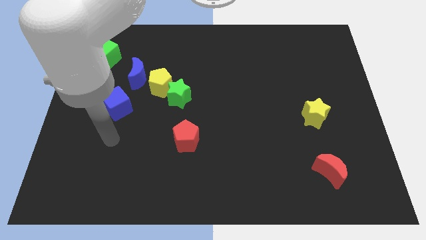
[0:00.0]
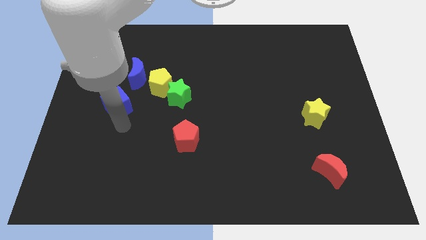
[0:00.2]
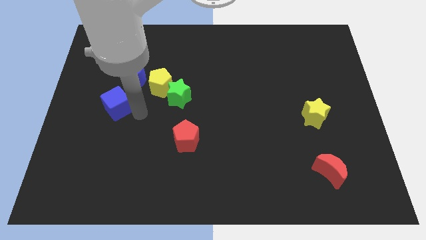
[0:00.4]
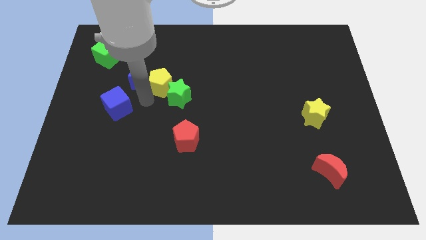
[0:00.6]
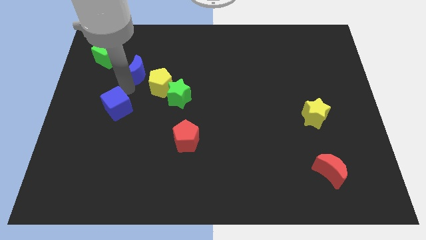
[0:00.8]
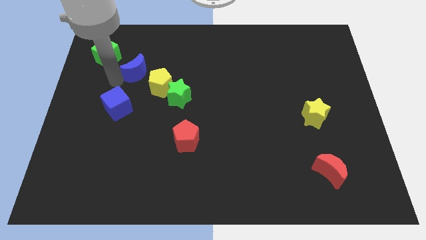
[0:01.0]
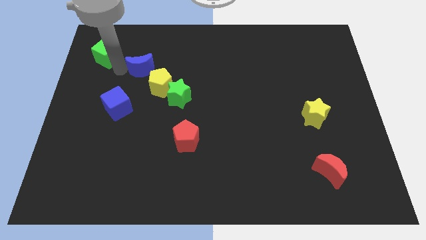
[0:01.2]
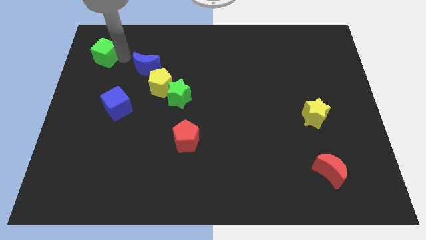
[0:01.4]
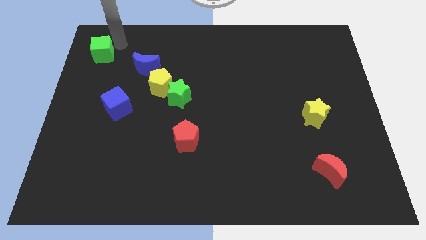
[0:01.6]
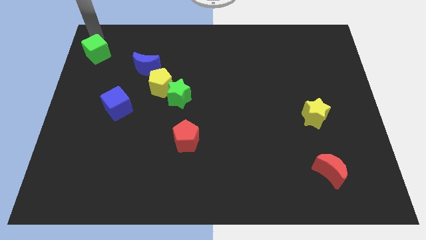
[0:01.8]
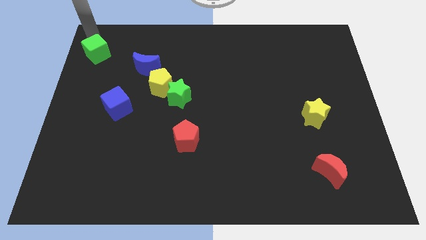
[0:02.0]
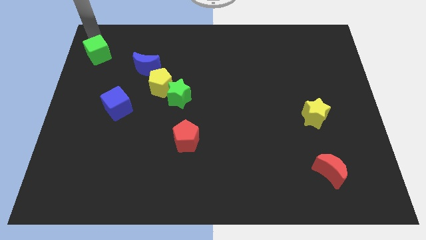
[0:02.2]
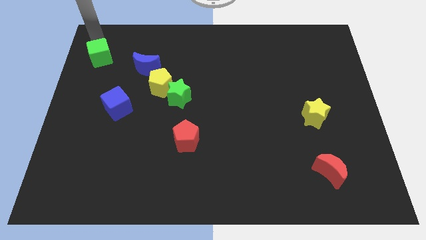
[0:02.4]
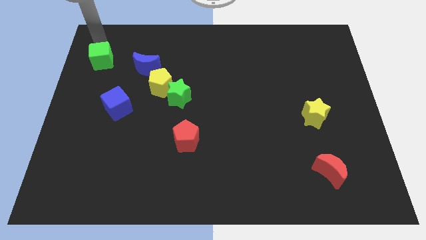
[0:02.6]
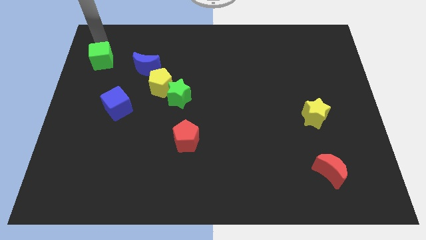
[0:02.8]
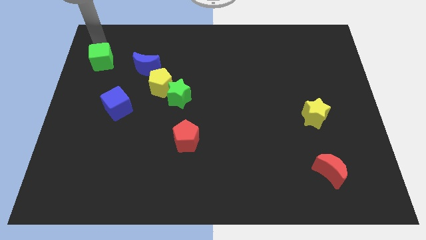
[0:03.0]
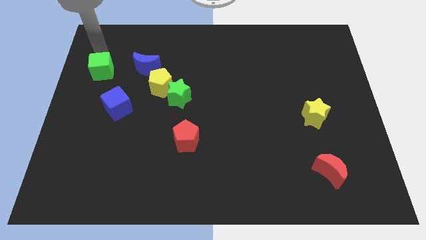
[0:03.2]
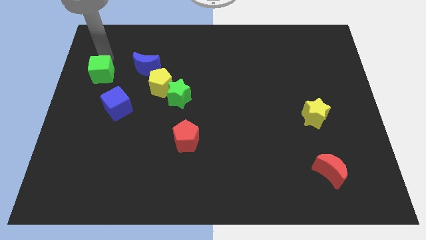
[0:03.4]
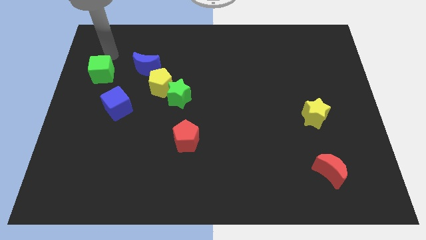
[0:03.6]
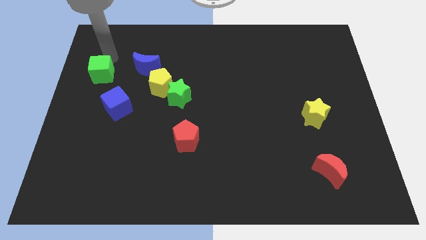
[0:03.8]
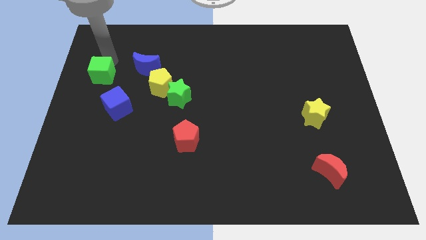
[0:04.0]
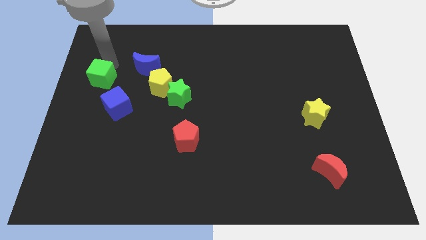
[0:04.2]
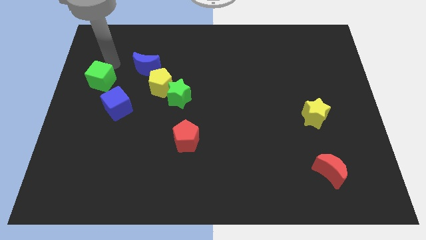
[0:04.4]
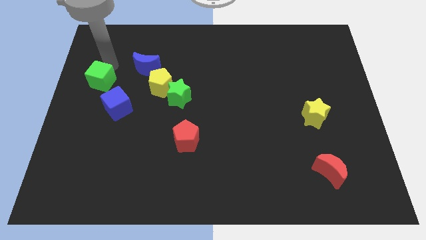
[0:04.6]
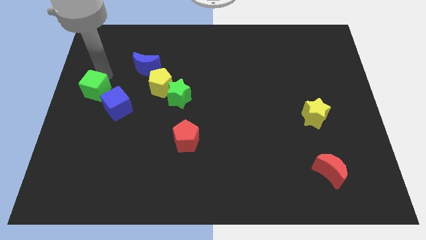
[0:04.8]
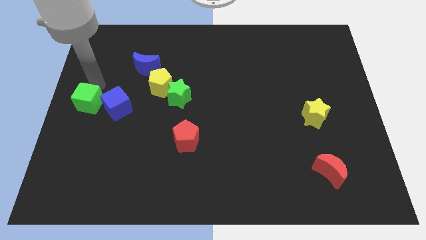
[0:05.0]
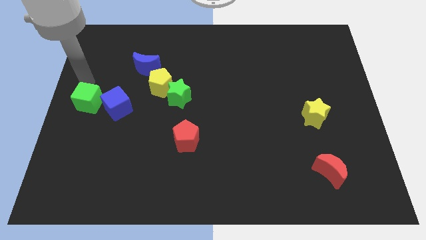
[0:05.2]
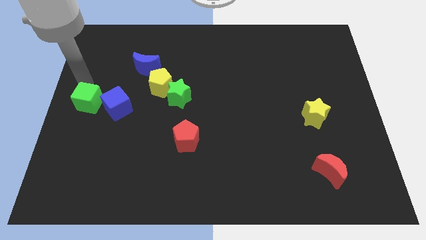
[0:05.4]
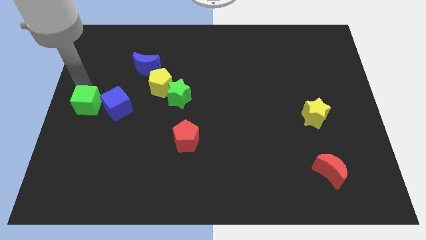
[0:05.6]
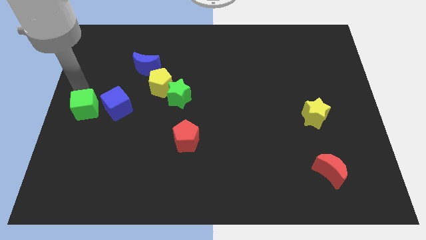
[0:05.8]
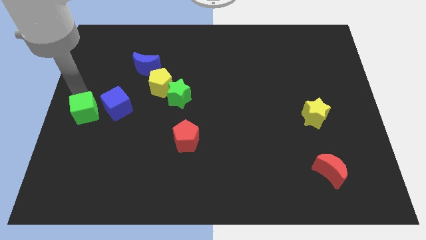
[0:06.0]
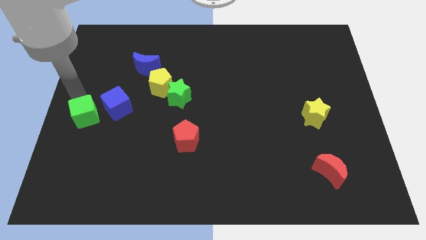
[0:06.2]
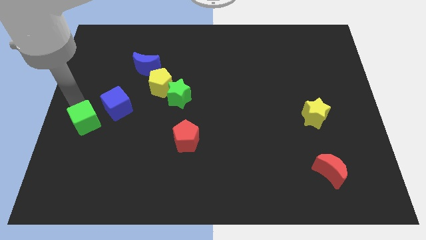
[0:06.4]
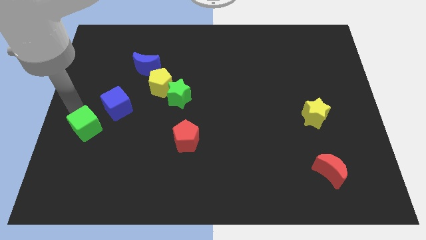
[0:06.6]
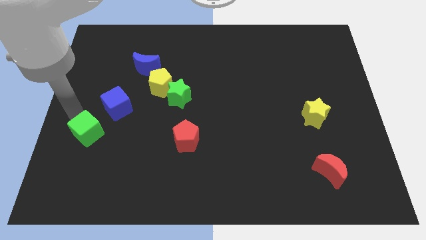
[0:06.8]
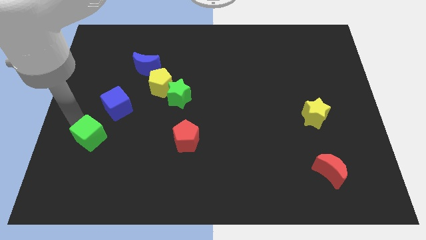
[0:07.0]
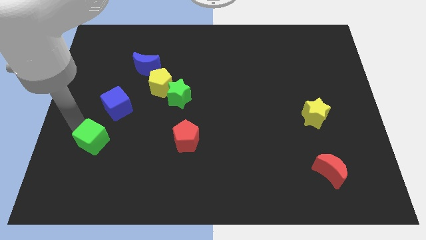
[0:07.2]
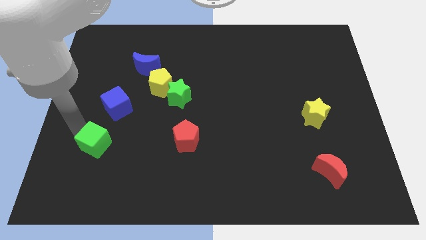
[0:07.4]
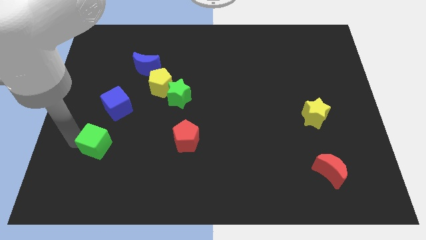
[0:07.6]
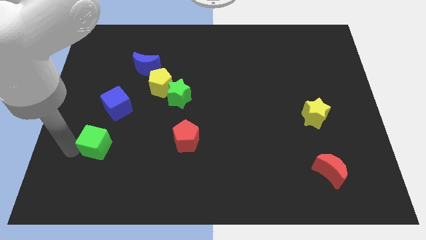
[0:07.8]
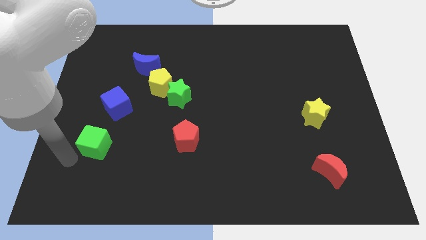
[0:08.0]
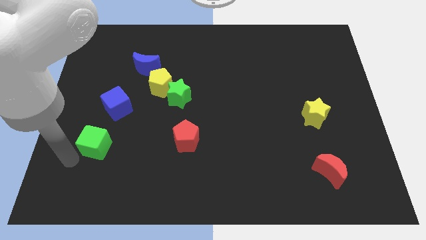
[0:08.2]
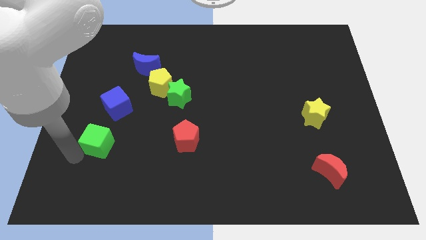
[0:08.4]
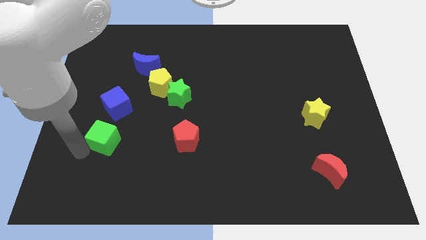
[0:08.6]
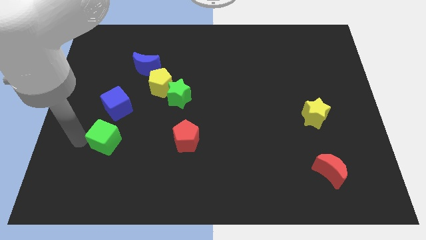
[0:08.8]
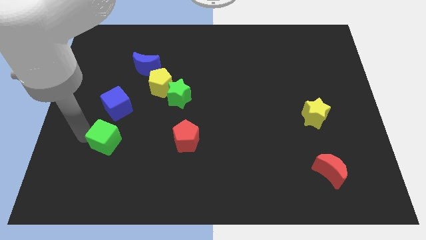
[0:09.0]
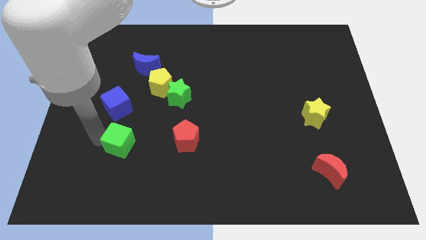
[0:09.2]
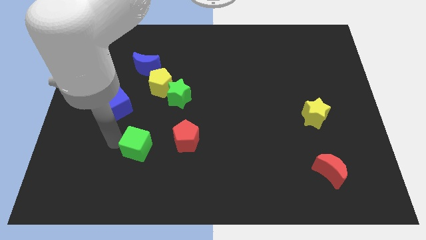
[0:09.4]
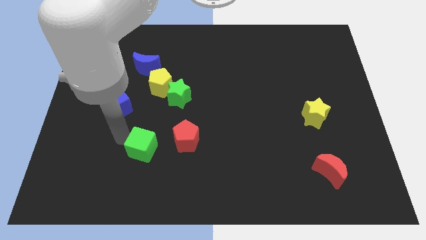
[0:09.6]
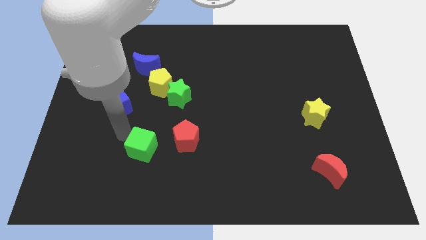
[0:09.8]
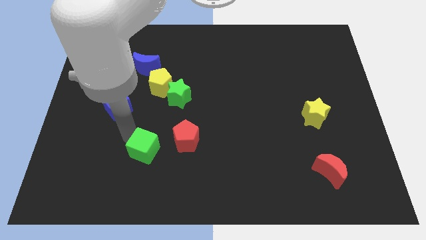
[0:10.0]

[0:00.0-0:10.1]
slide the green cube to the bottom left side of the red pentagon

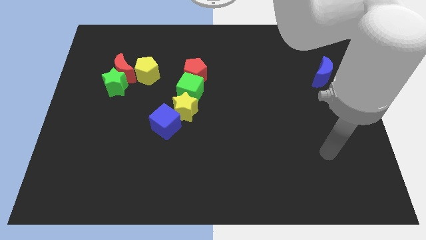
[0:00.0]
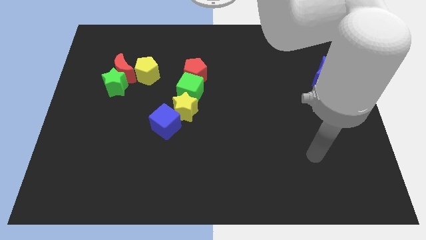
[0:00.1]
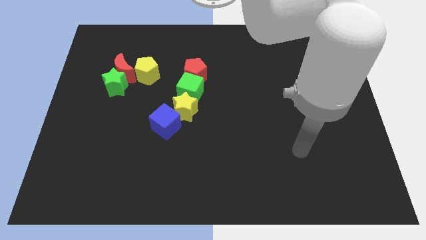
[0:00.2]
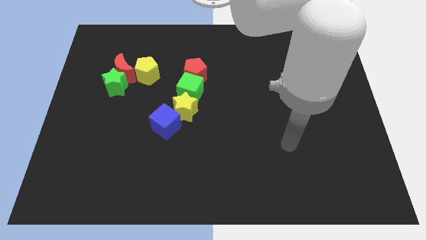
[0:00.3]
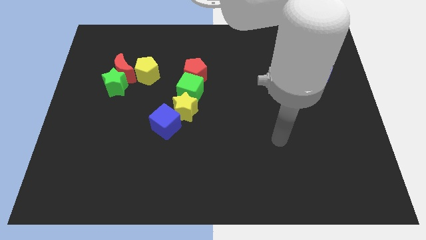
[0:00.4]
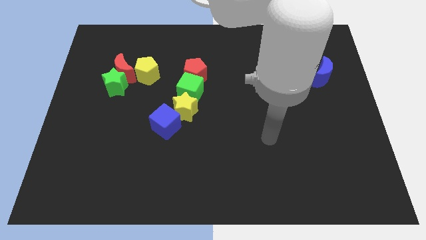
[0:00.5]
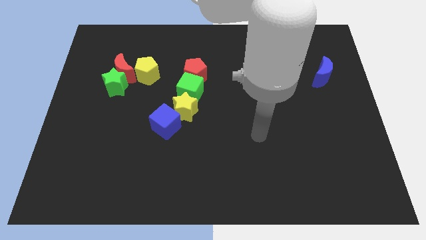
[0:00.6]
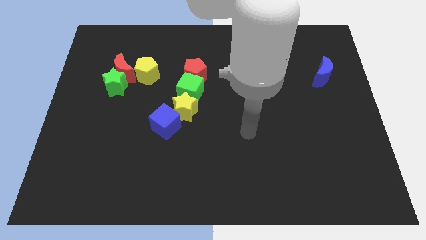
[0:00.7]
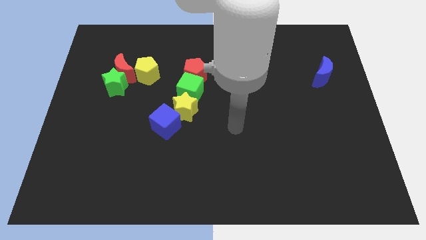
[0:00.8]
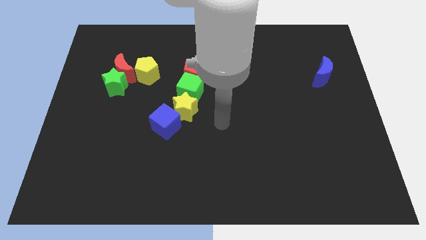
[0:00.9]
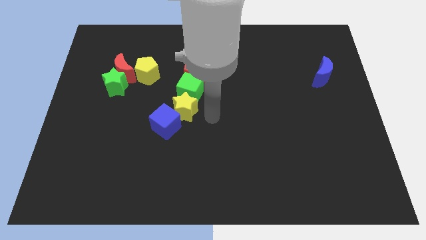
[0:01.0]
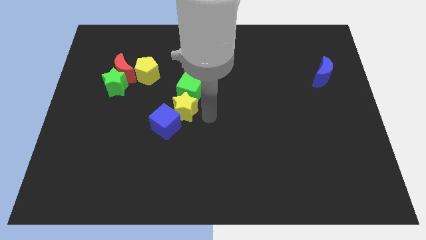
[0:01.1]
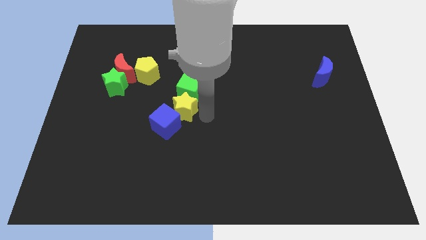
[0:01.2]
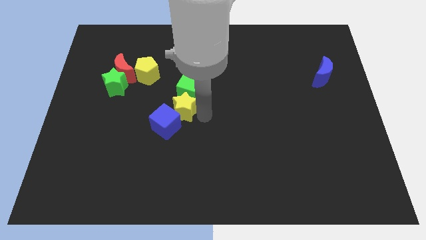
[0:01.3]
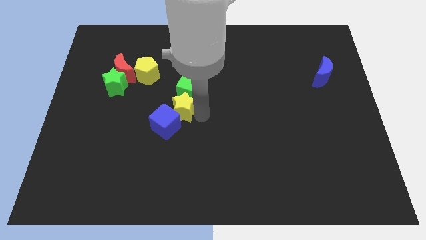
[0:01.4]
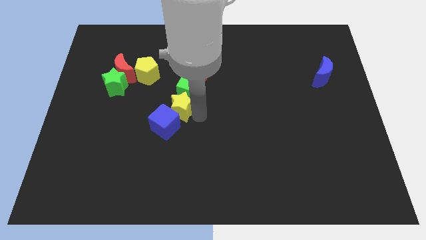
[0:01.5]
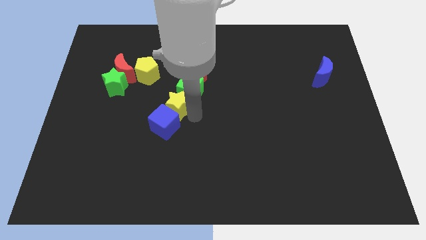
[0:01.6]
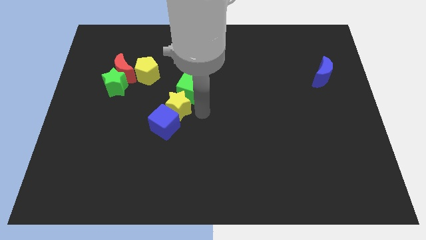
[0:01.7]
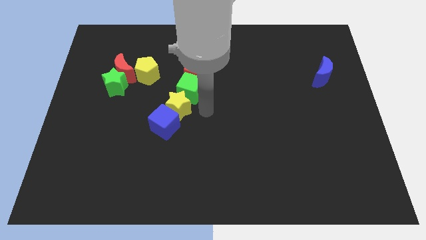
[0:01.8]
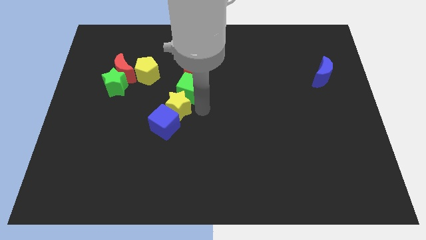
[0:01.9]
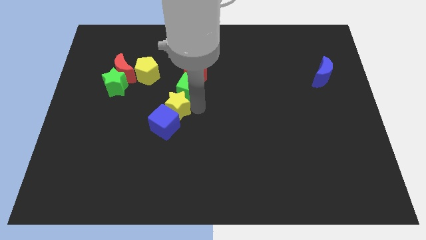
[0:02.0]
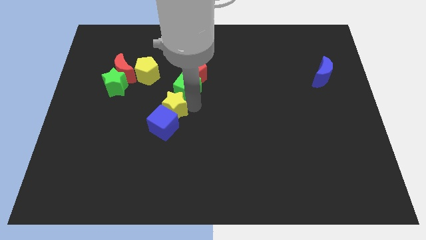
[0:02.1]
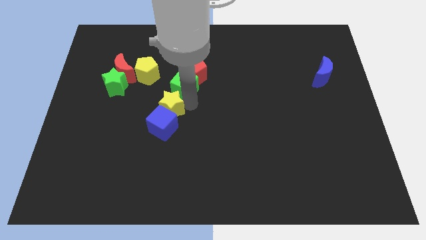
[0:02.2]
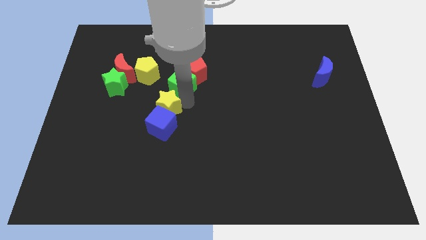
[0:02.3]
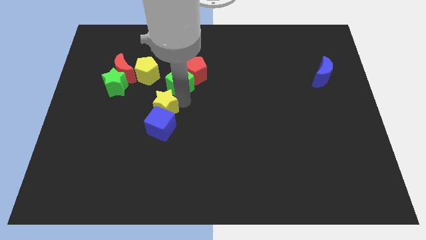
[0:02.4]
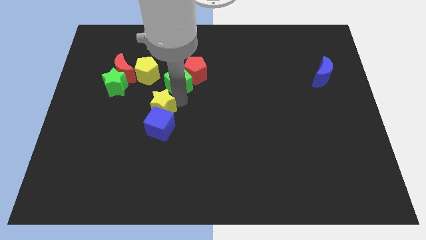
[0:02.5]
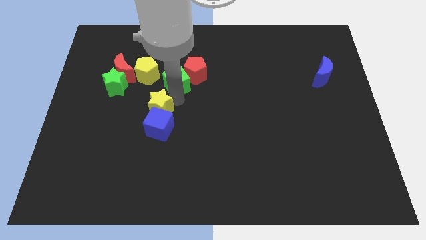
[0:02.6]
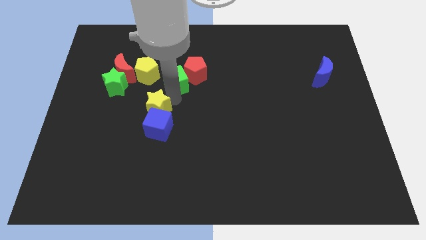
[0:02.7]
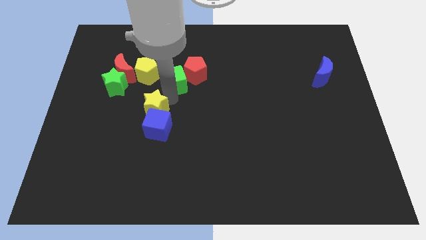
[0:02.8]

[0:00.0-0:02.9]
move the yellow star to the bottom right side of the green star

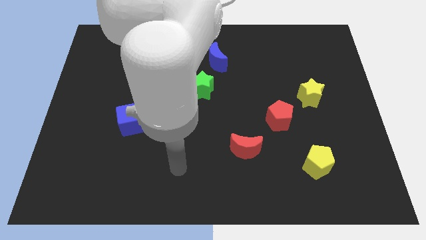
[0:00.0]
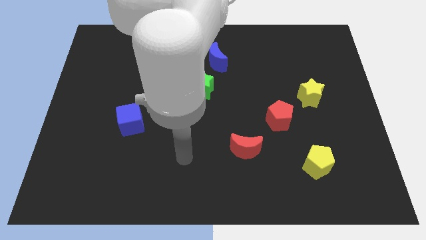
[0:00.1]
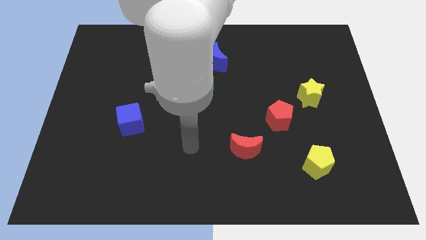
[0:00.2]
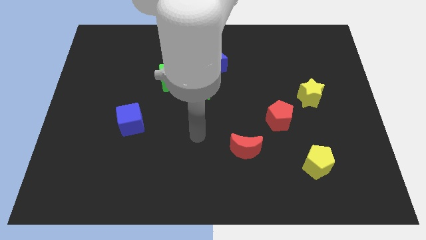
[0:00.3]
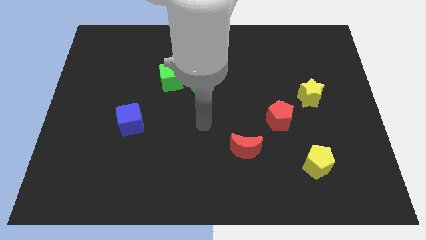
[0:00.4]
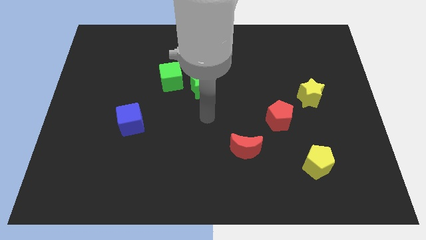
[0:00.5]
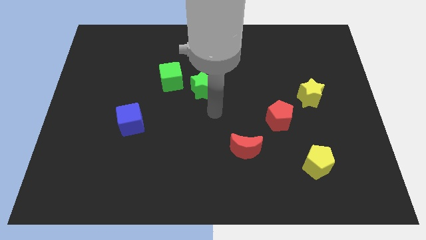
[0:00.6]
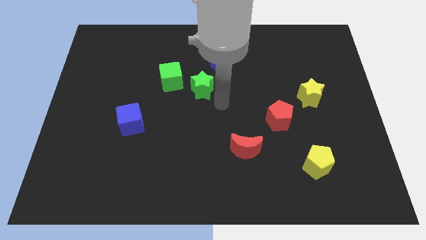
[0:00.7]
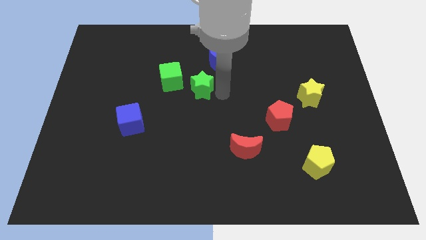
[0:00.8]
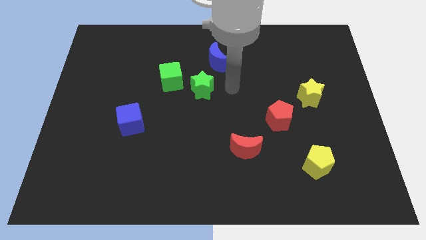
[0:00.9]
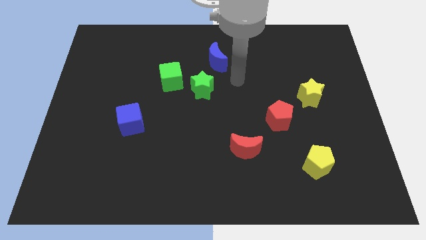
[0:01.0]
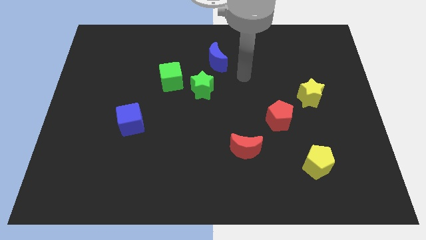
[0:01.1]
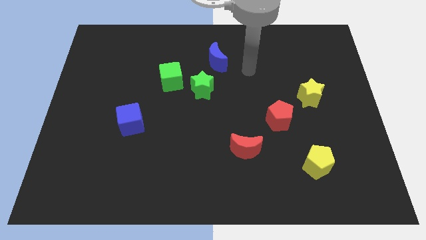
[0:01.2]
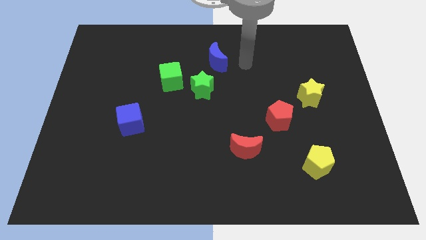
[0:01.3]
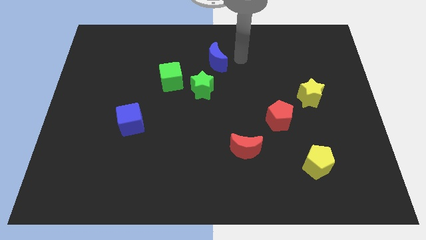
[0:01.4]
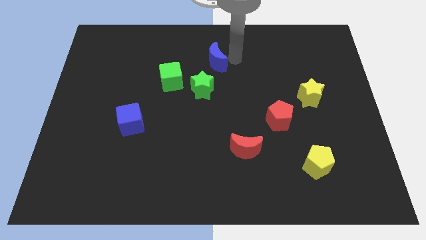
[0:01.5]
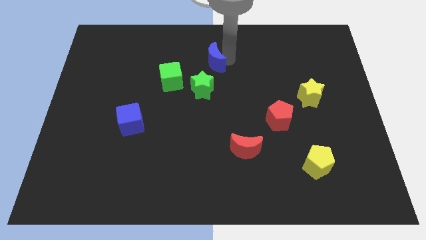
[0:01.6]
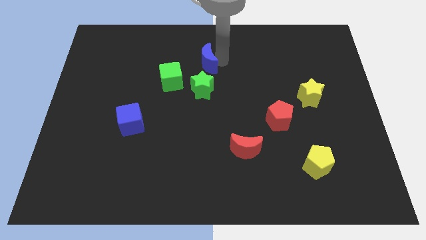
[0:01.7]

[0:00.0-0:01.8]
push the blue moon to the top right side of the green cube
